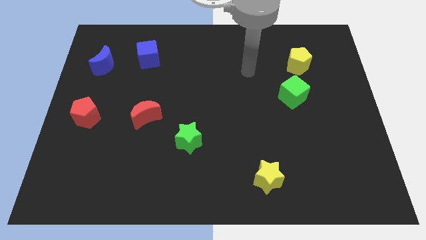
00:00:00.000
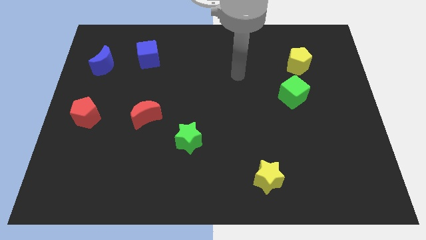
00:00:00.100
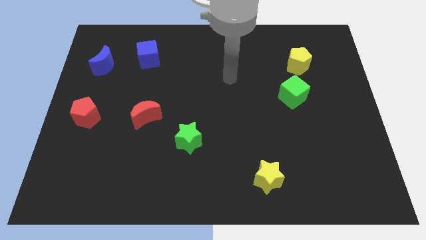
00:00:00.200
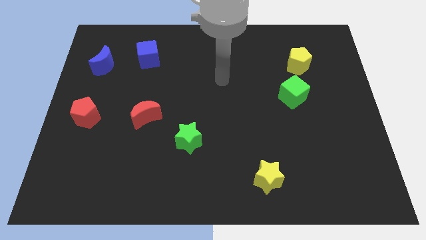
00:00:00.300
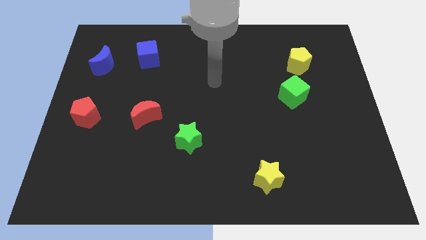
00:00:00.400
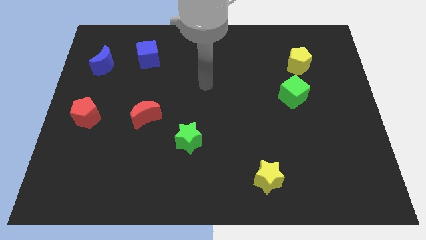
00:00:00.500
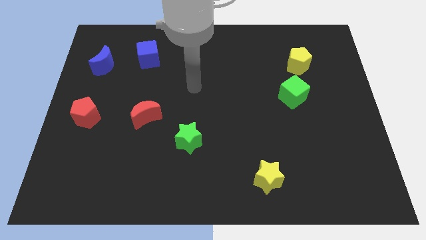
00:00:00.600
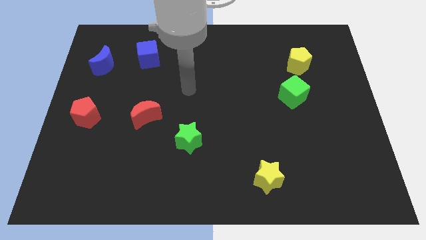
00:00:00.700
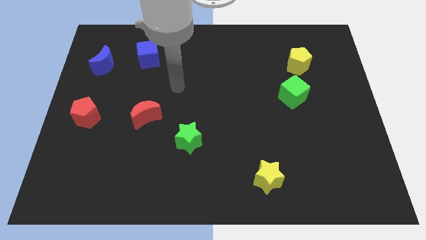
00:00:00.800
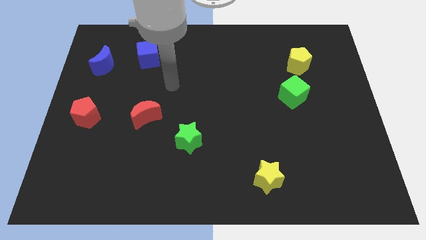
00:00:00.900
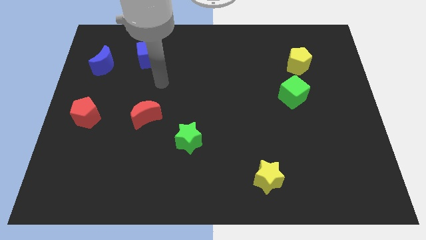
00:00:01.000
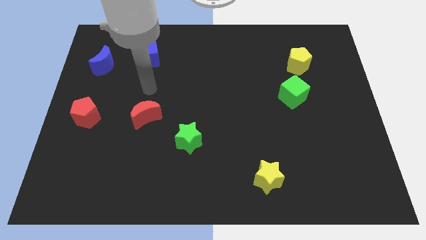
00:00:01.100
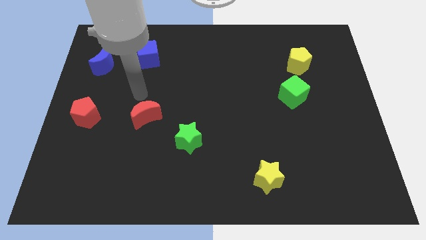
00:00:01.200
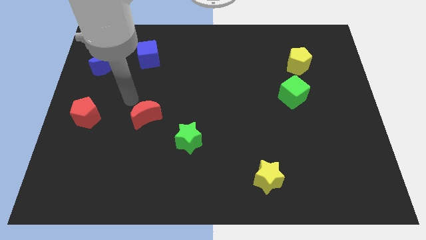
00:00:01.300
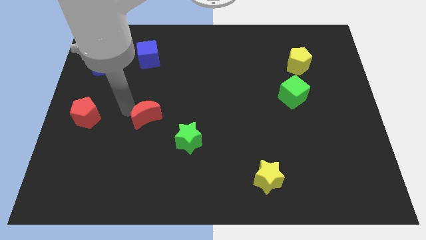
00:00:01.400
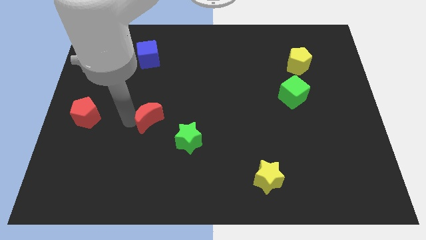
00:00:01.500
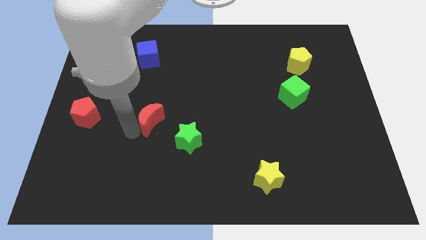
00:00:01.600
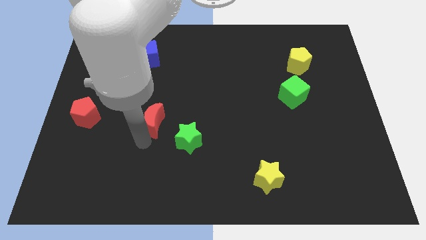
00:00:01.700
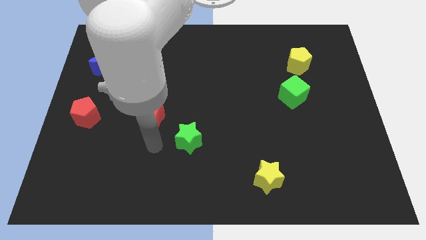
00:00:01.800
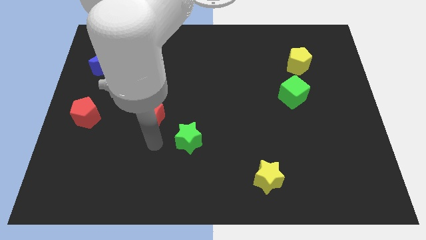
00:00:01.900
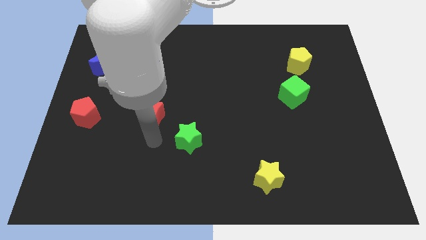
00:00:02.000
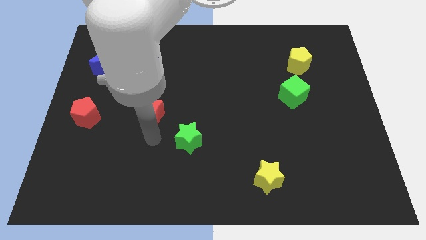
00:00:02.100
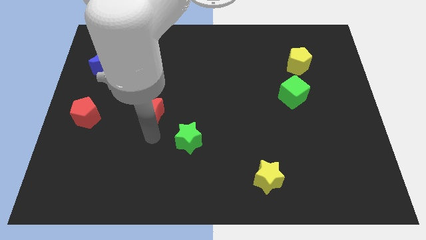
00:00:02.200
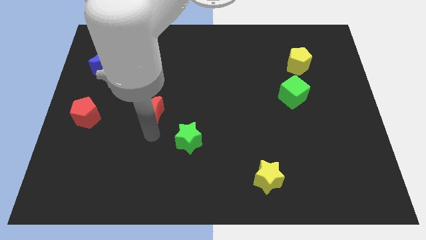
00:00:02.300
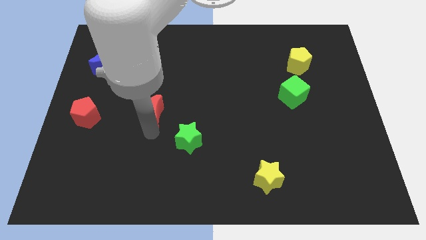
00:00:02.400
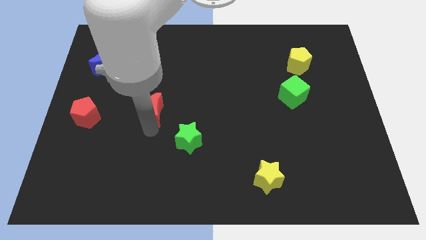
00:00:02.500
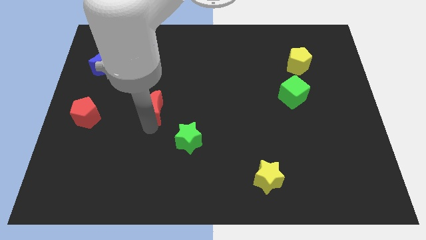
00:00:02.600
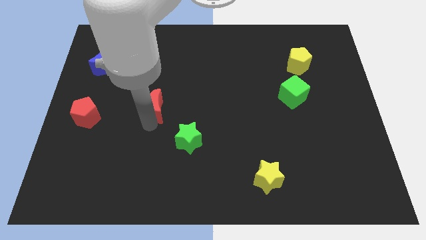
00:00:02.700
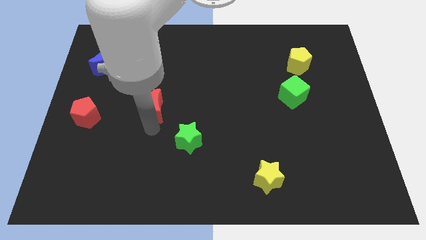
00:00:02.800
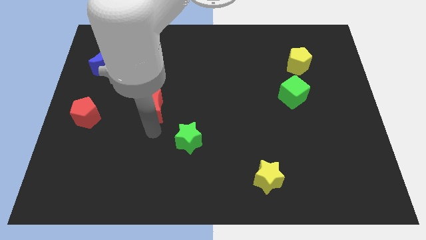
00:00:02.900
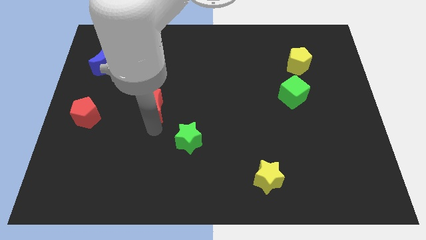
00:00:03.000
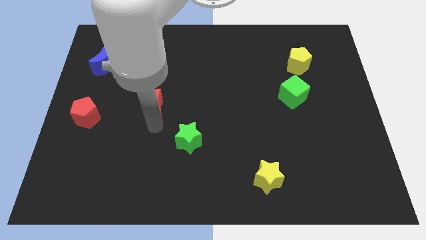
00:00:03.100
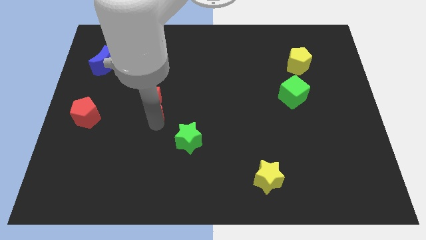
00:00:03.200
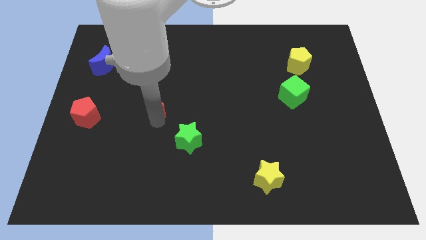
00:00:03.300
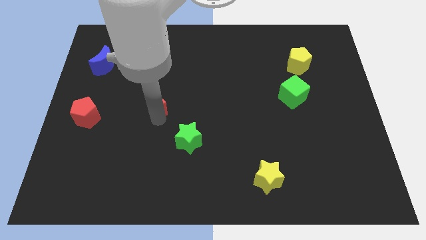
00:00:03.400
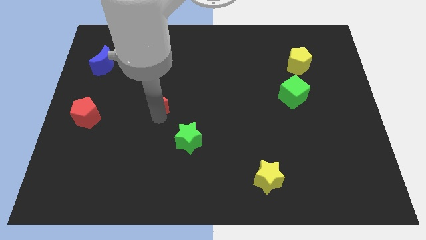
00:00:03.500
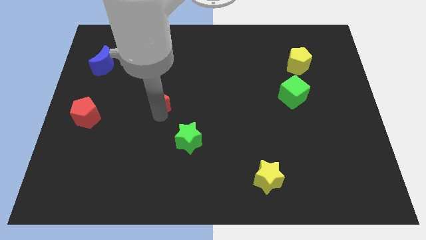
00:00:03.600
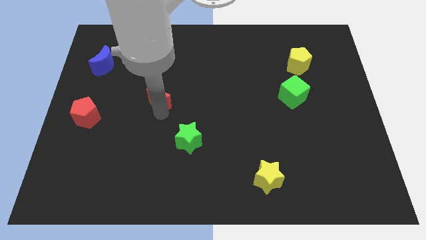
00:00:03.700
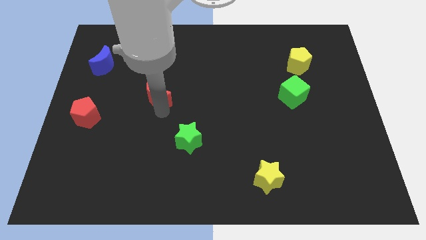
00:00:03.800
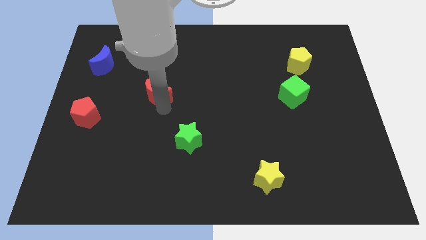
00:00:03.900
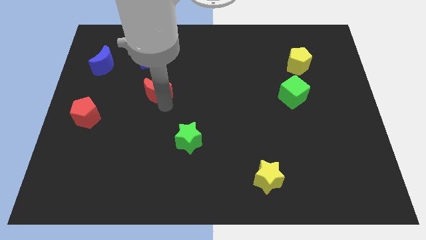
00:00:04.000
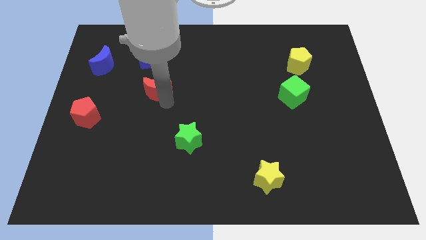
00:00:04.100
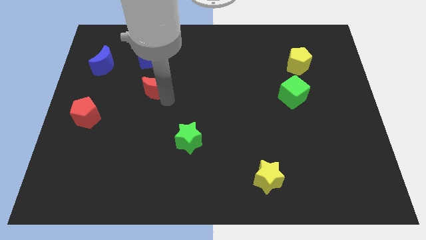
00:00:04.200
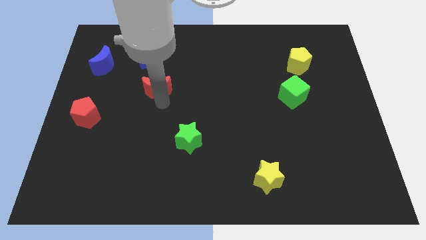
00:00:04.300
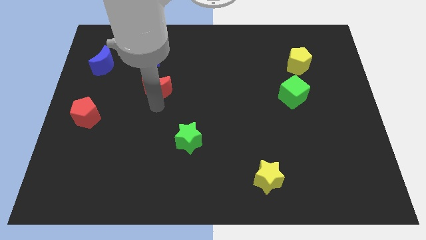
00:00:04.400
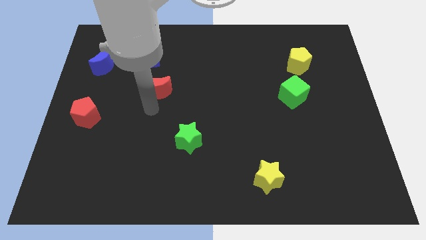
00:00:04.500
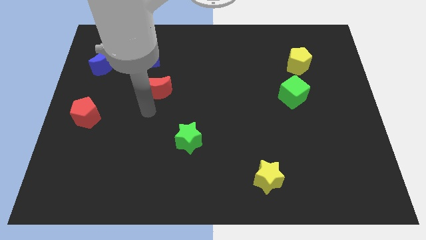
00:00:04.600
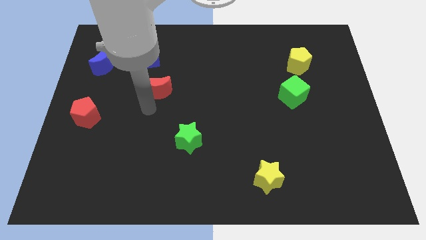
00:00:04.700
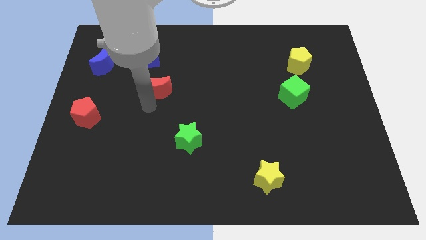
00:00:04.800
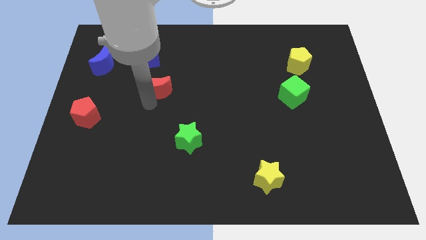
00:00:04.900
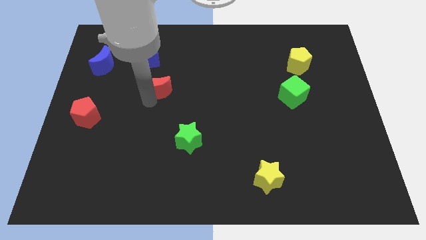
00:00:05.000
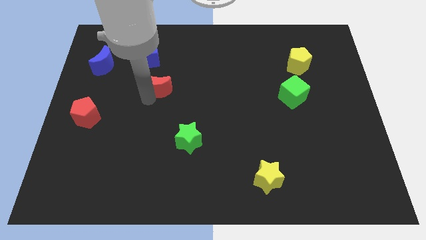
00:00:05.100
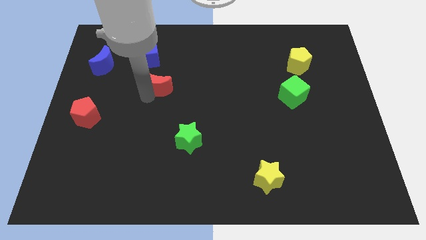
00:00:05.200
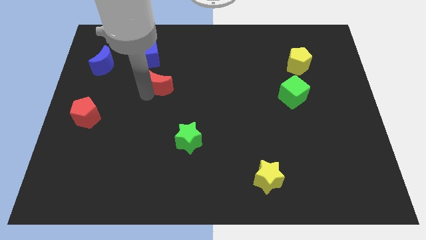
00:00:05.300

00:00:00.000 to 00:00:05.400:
move the red moon to the bottom right of the blue cube

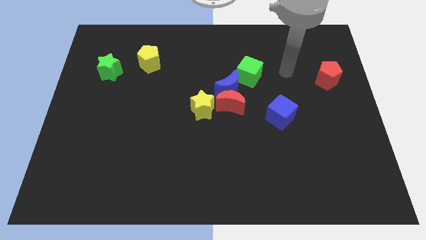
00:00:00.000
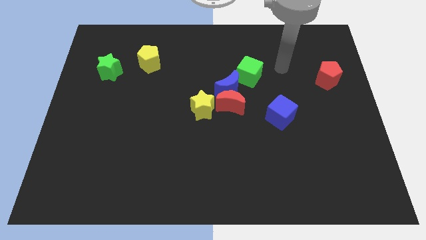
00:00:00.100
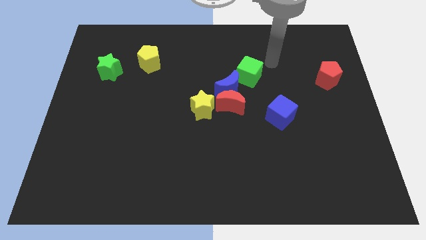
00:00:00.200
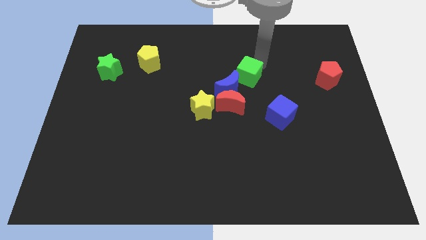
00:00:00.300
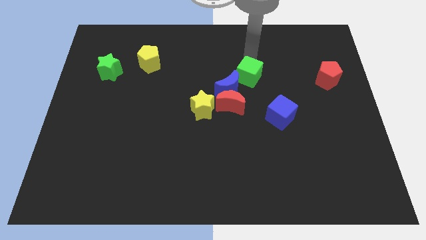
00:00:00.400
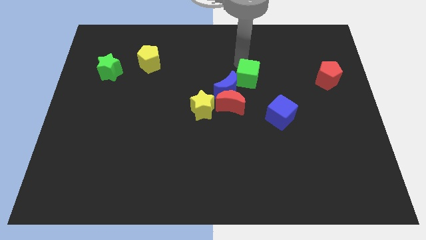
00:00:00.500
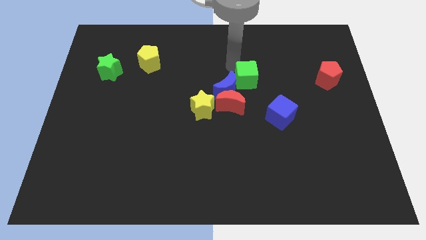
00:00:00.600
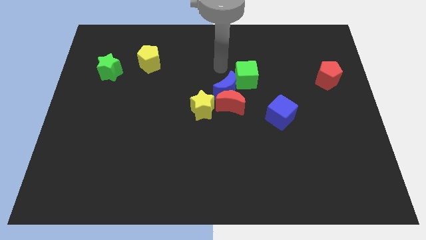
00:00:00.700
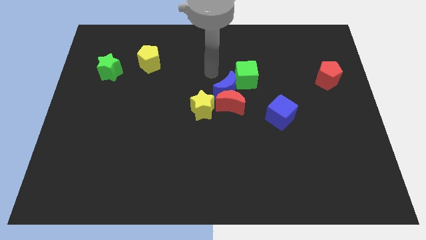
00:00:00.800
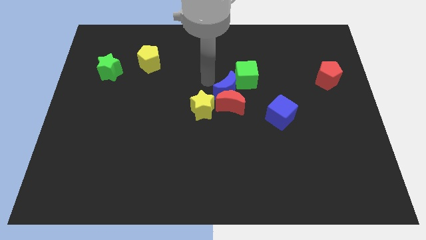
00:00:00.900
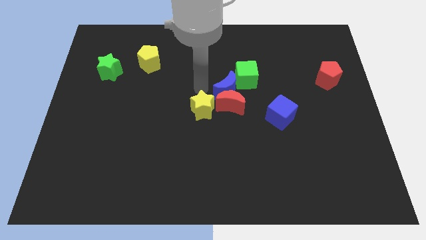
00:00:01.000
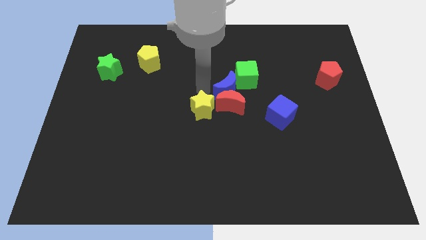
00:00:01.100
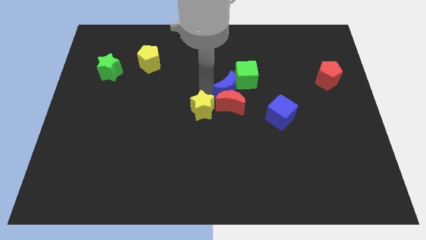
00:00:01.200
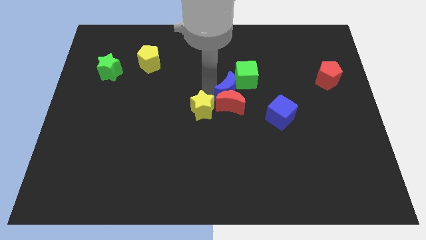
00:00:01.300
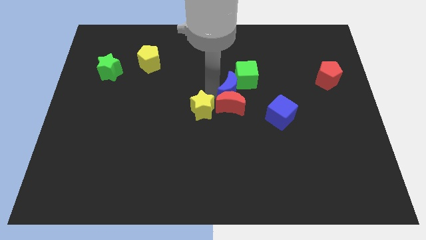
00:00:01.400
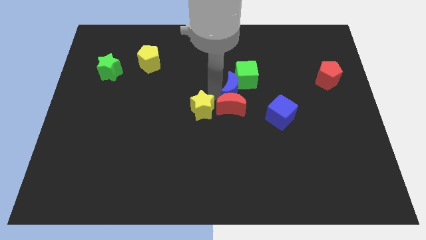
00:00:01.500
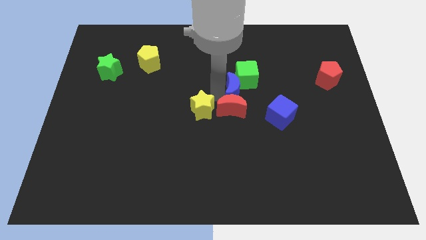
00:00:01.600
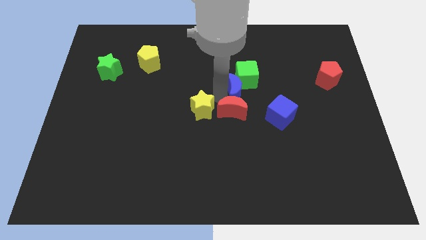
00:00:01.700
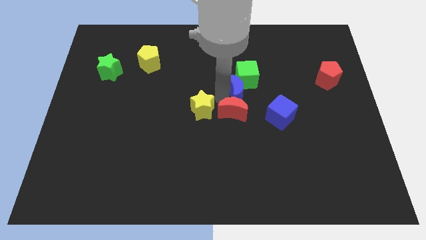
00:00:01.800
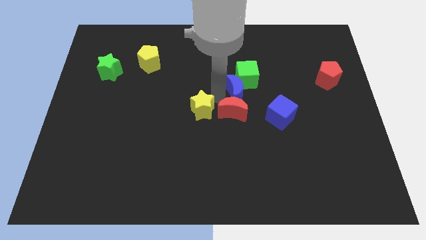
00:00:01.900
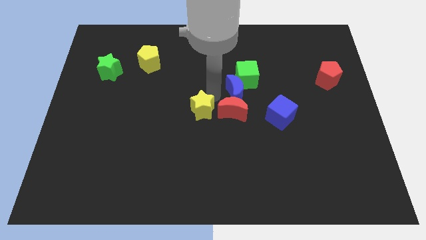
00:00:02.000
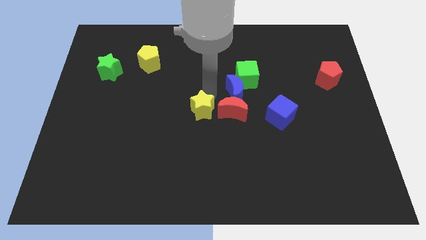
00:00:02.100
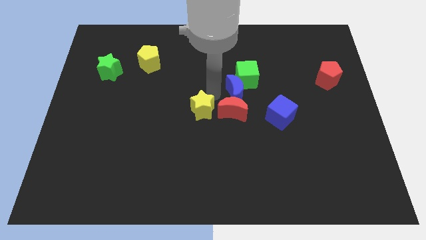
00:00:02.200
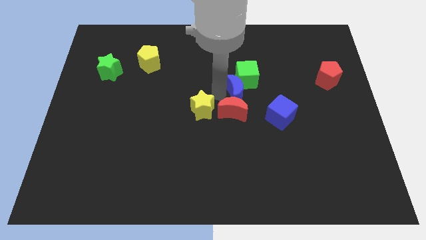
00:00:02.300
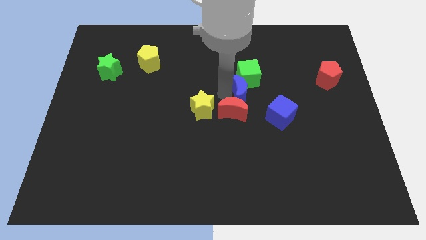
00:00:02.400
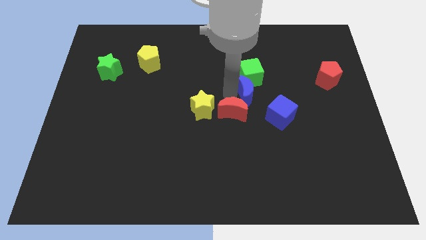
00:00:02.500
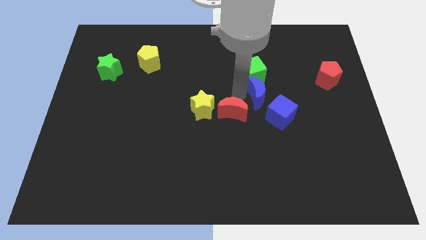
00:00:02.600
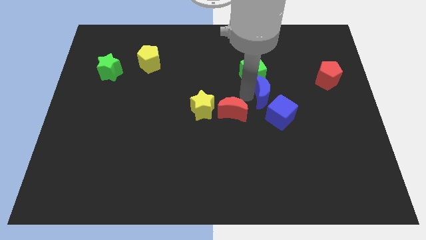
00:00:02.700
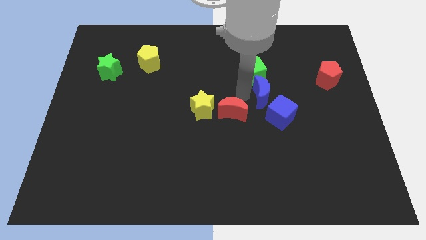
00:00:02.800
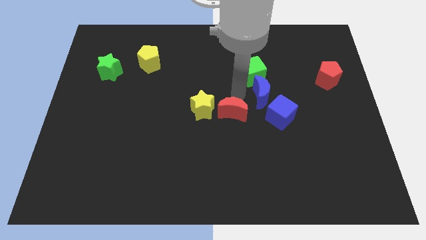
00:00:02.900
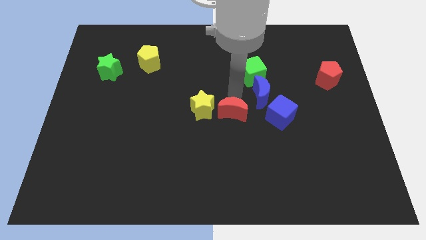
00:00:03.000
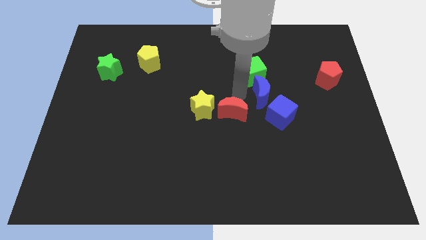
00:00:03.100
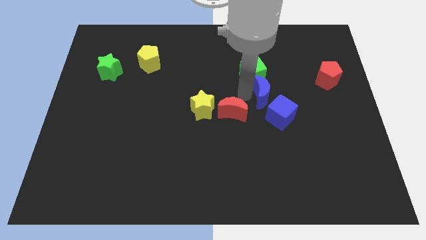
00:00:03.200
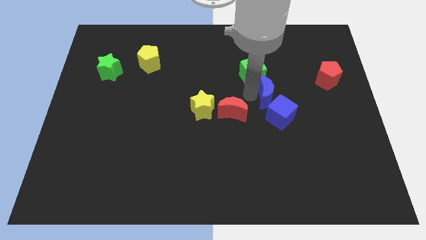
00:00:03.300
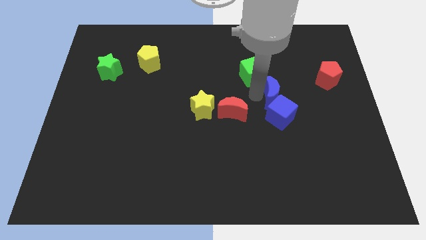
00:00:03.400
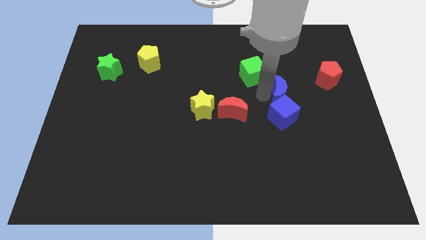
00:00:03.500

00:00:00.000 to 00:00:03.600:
put the blue moon to the top right side of the blue cube
